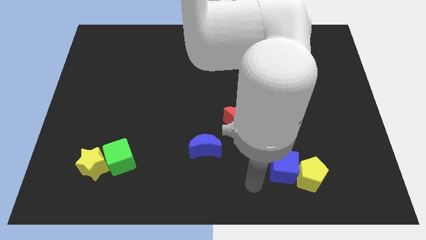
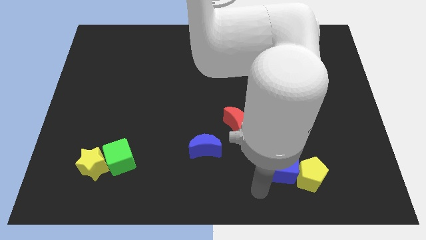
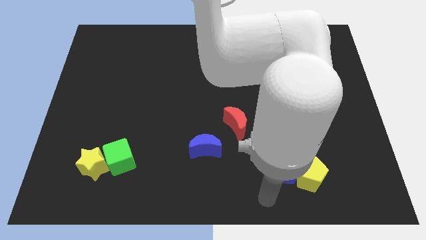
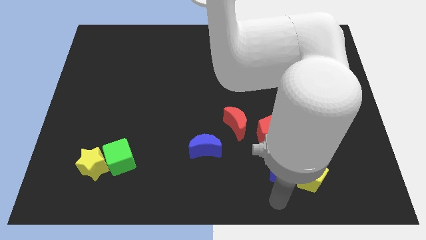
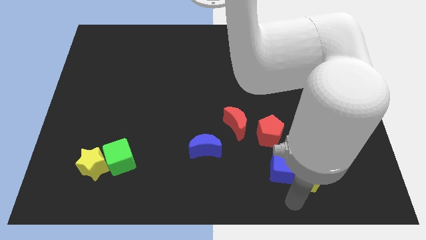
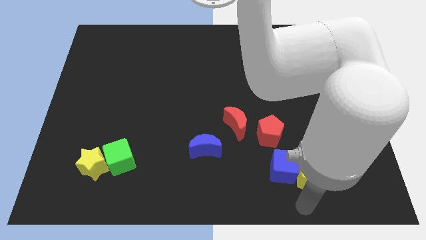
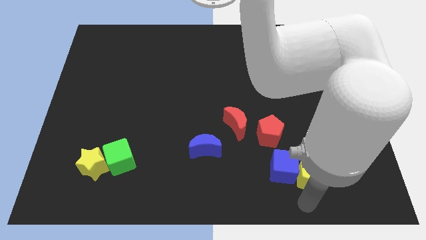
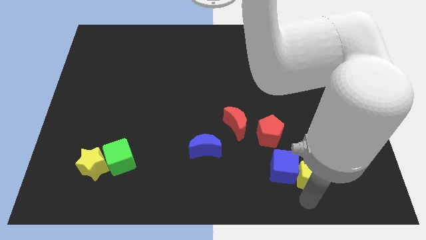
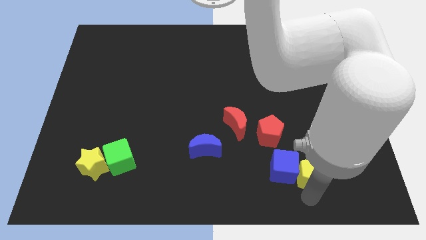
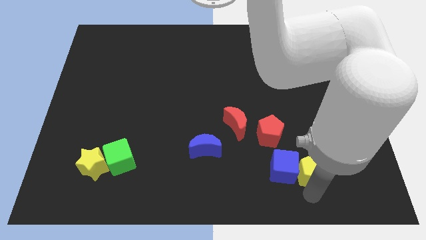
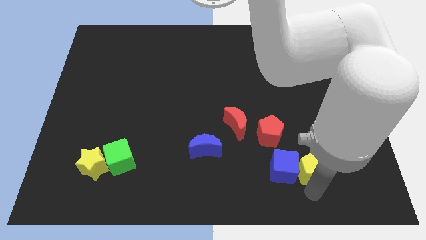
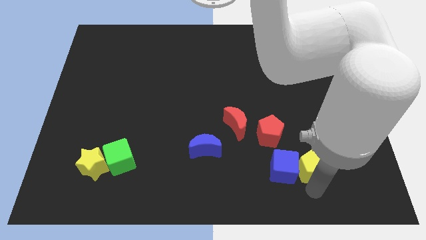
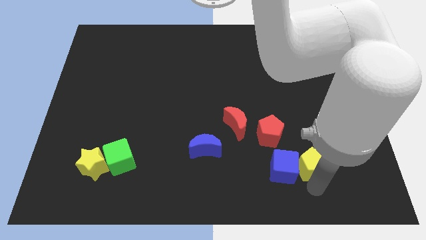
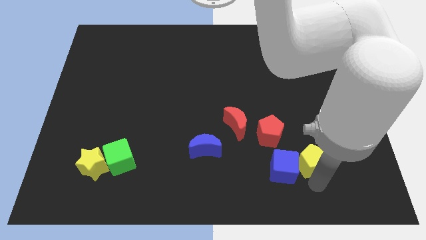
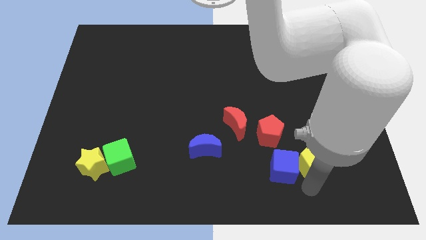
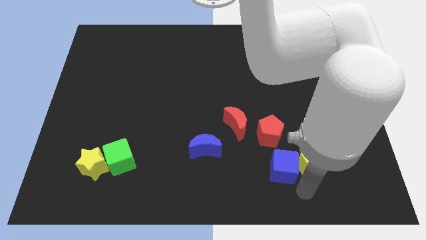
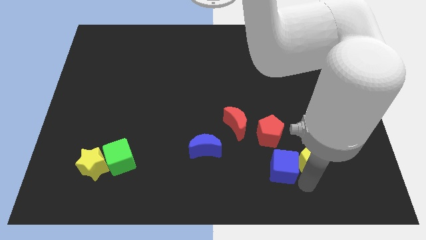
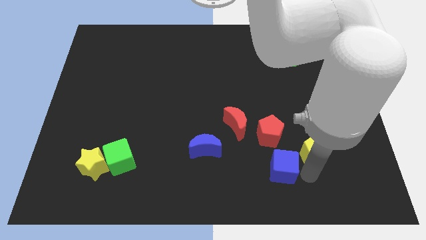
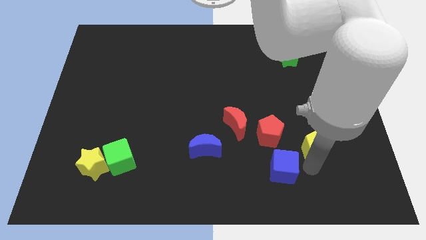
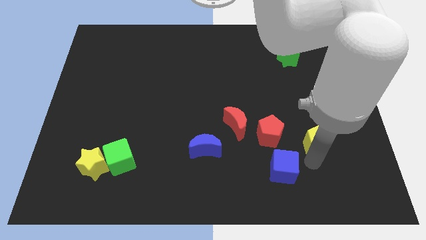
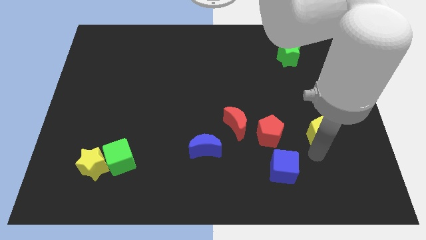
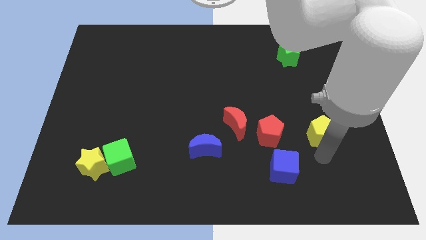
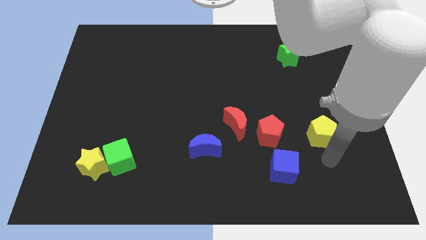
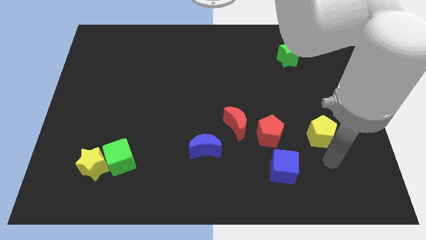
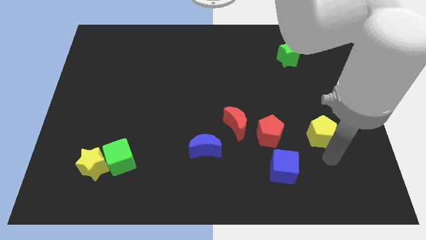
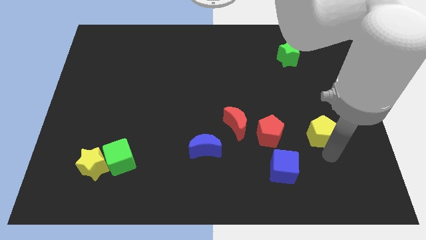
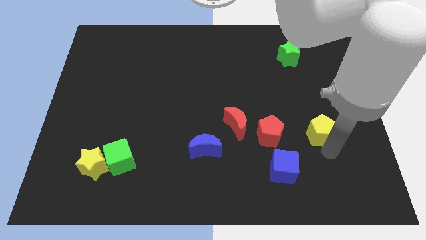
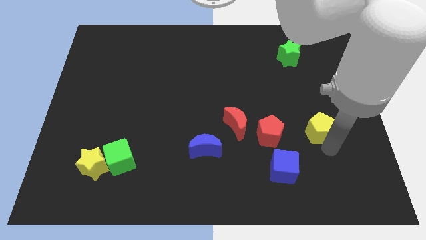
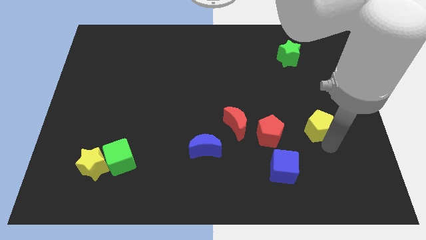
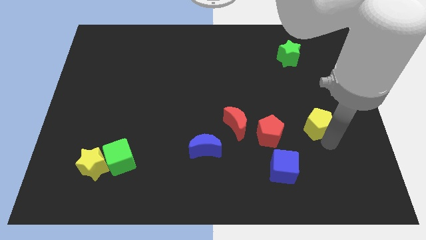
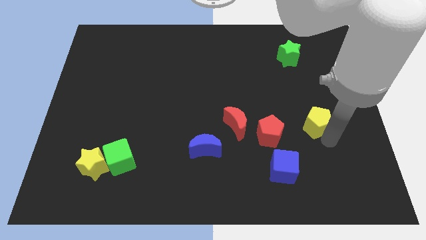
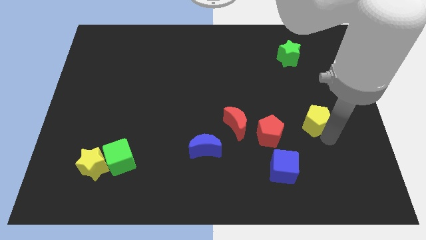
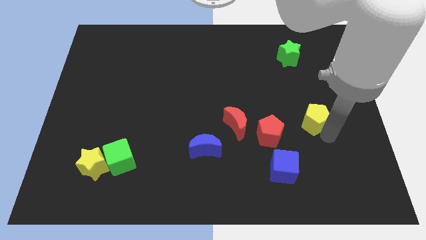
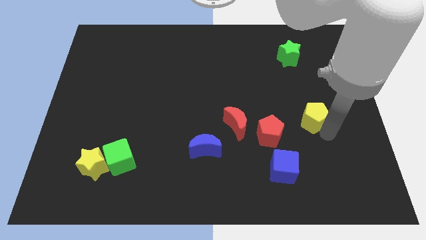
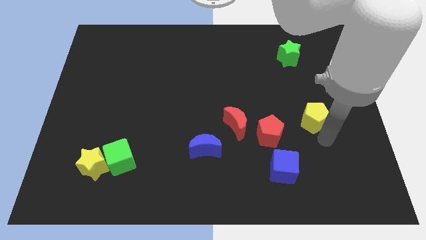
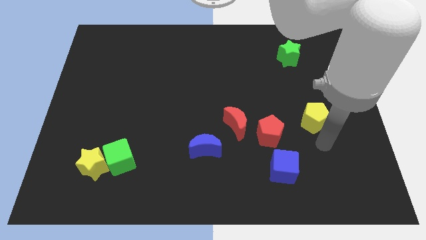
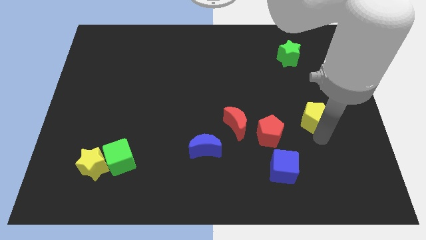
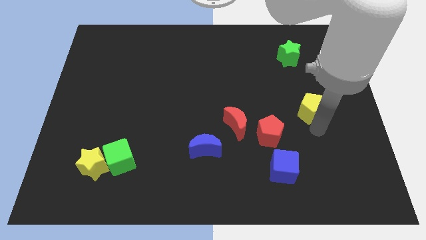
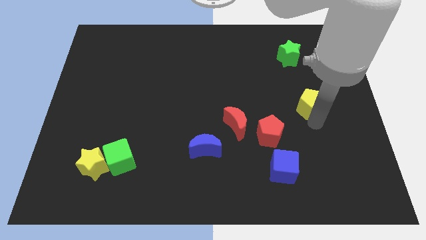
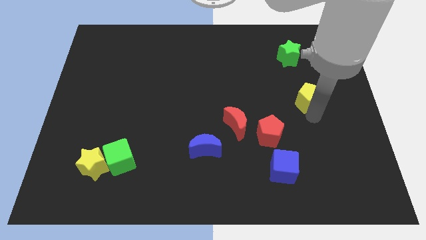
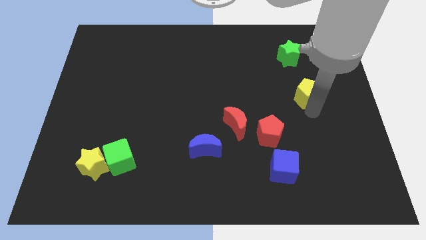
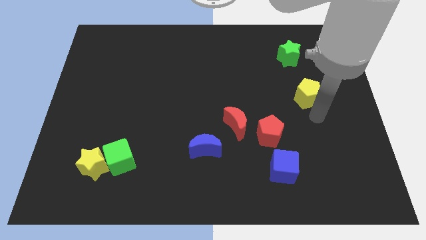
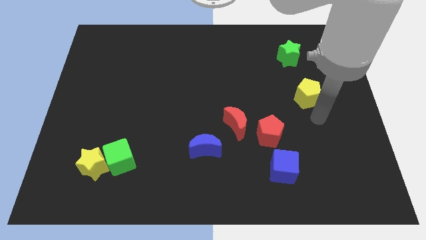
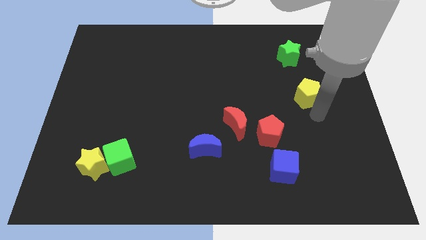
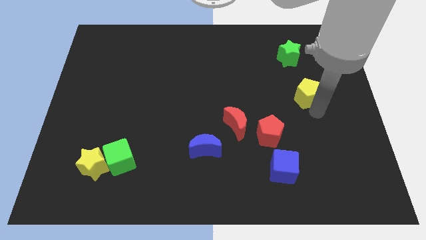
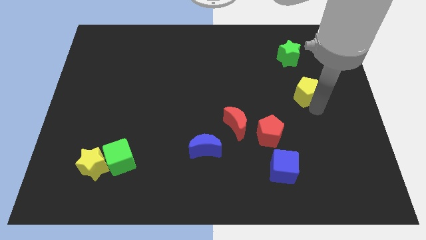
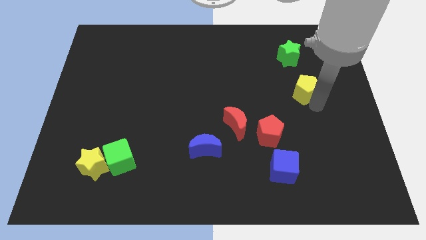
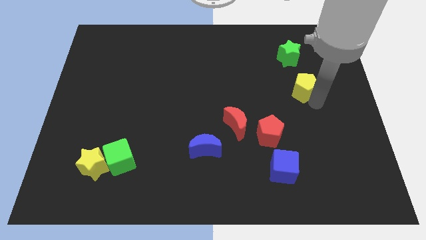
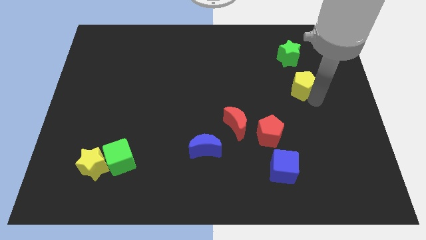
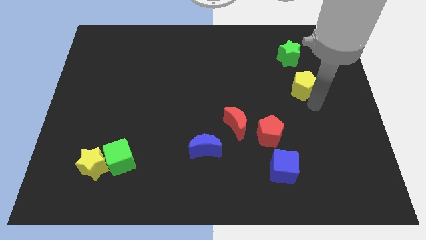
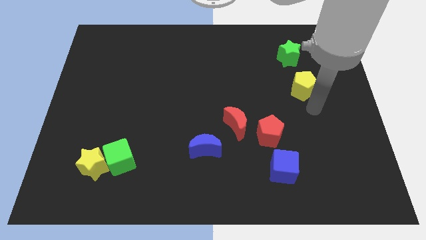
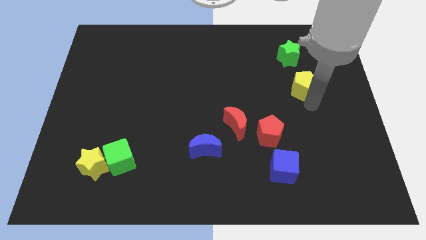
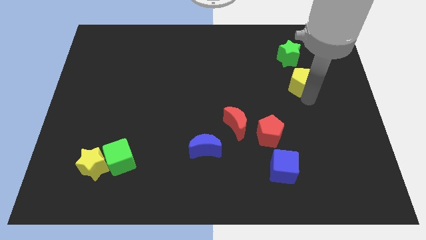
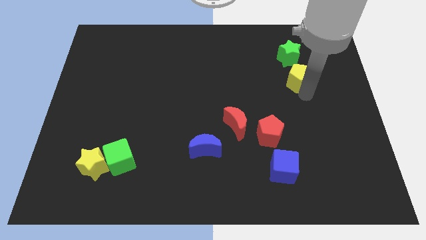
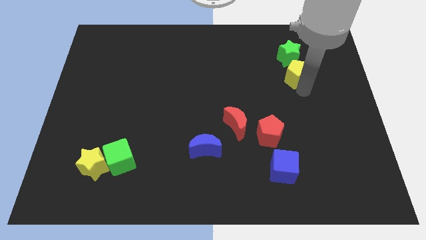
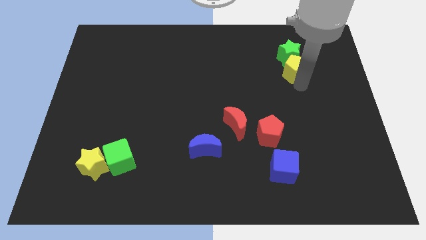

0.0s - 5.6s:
move the yellow pentagon to the green star

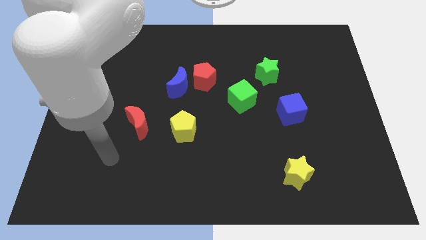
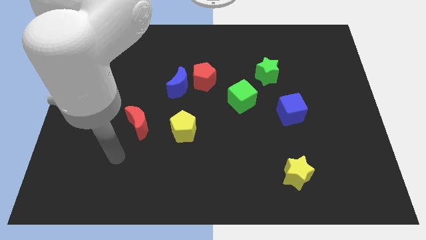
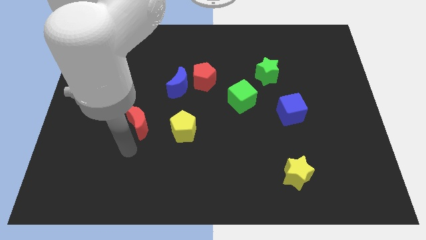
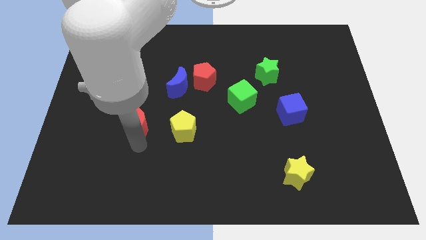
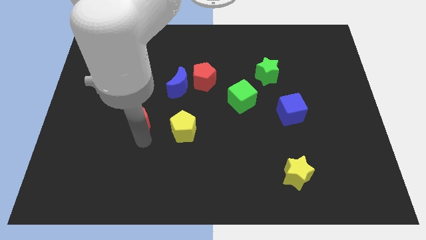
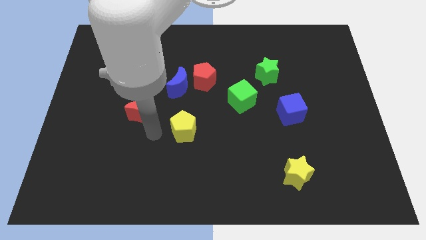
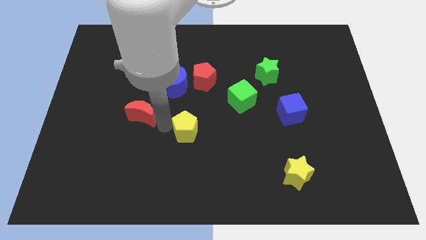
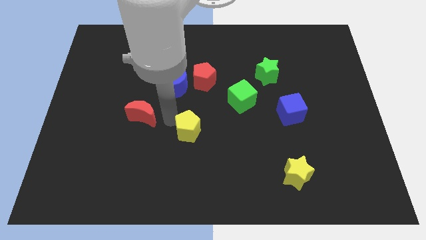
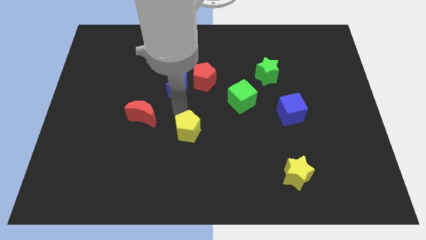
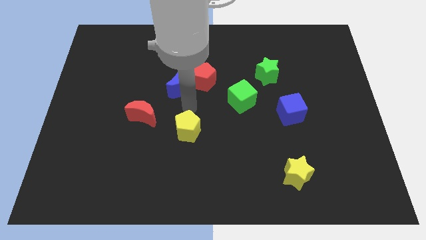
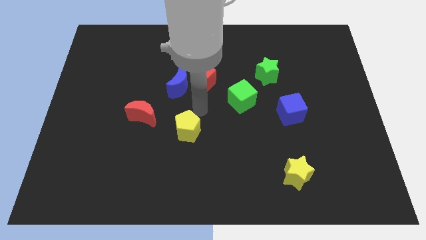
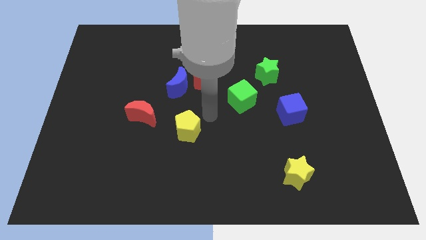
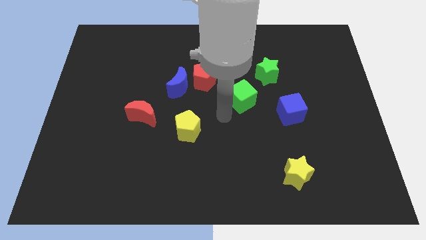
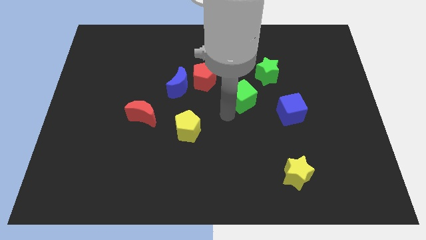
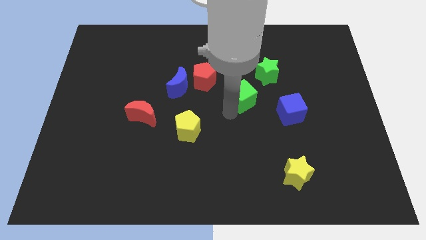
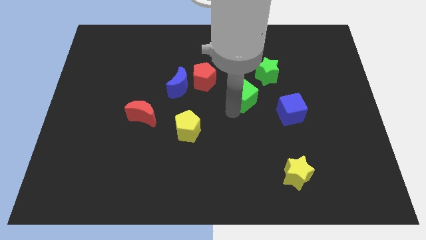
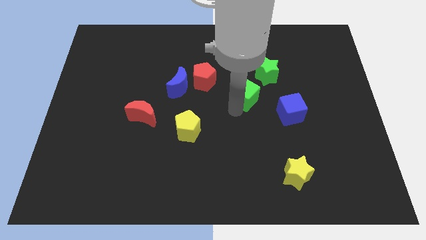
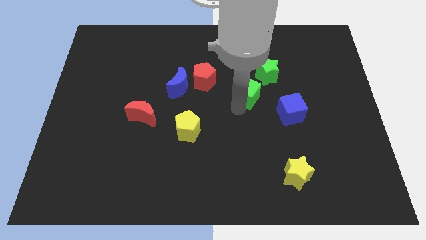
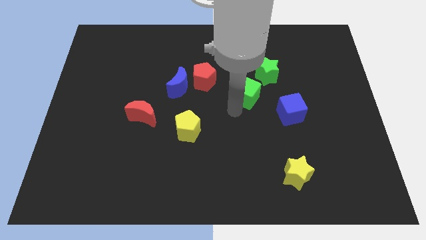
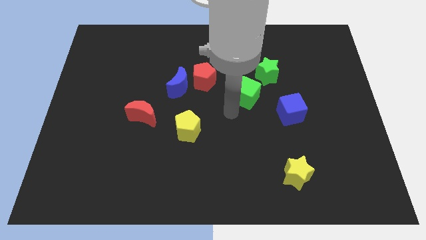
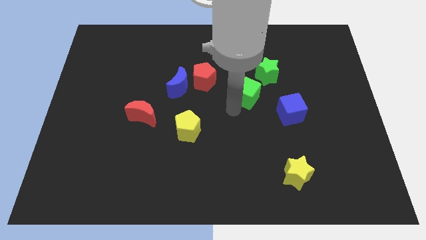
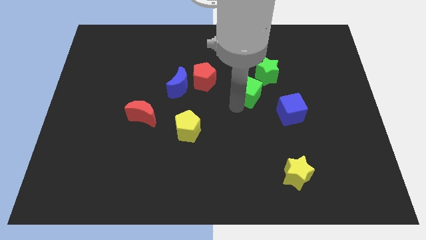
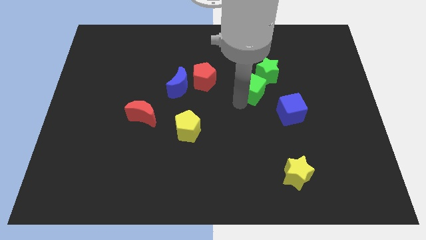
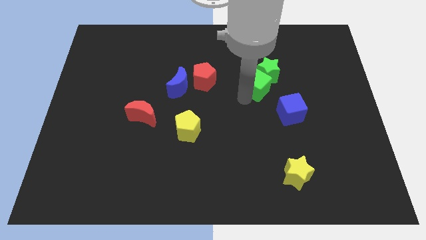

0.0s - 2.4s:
push the green cube next to the green star
